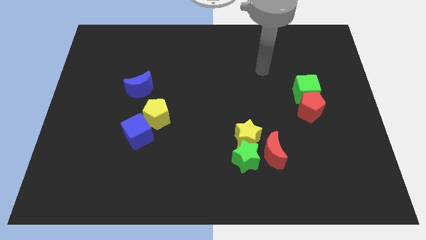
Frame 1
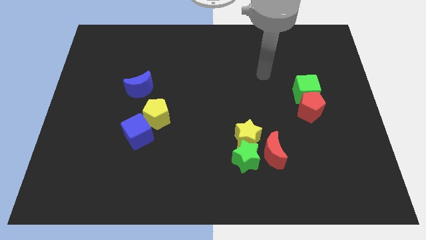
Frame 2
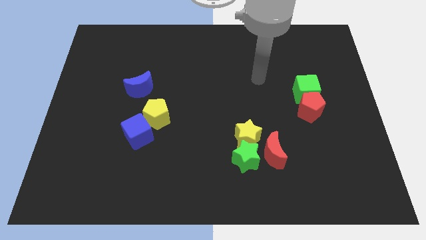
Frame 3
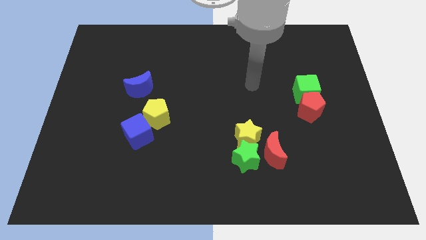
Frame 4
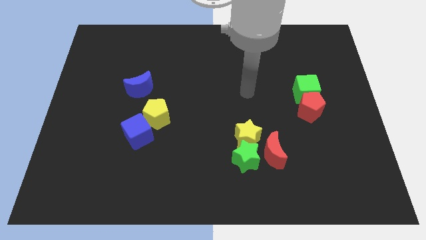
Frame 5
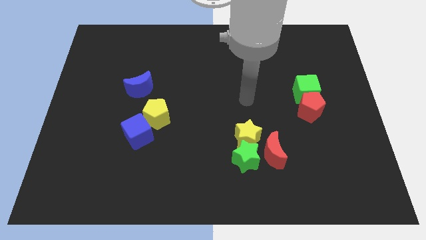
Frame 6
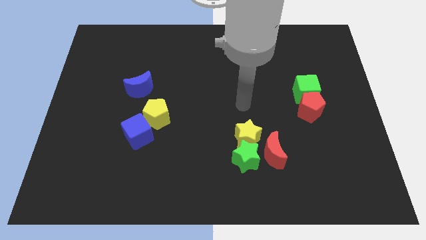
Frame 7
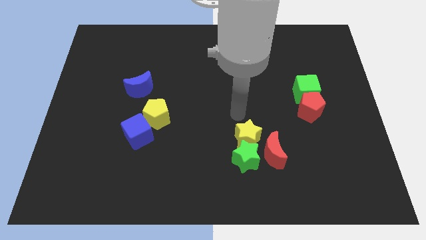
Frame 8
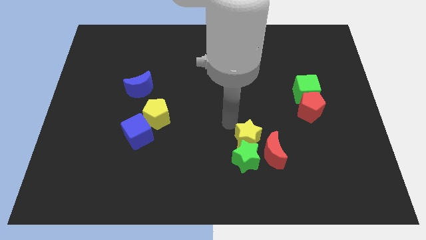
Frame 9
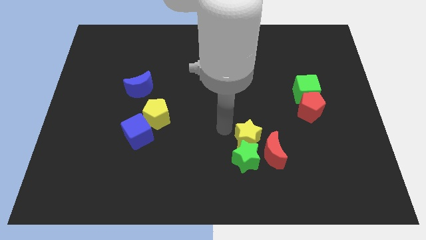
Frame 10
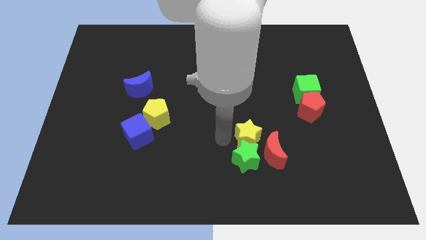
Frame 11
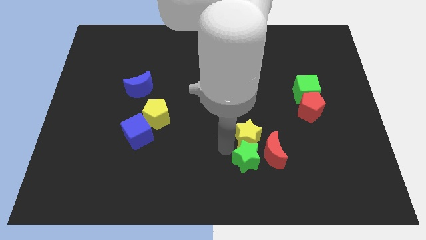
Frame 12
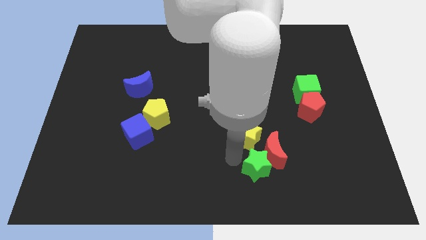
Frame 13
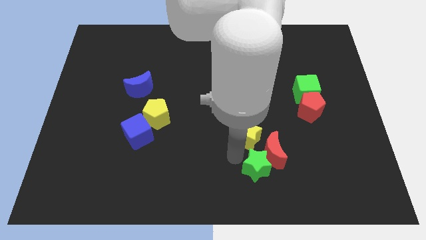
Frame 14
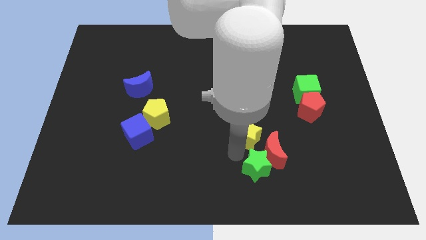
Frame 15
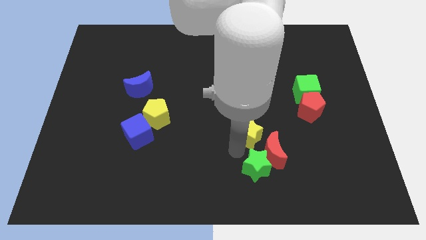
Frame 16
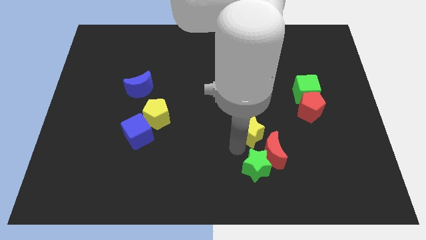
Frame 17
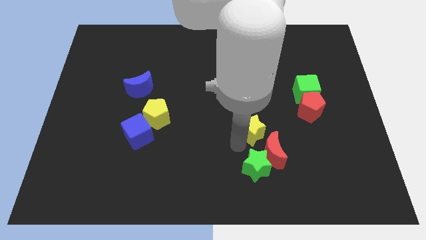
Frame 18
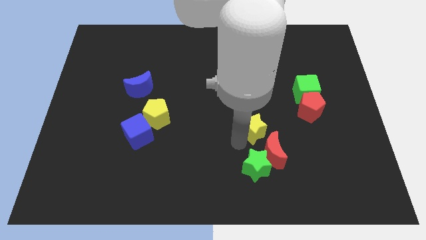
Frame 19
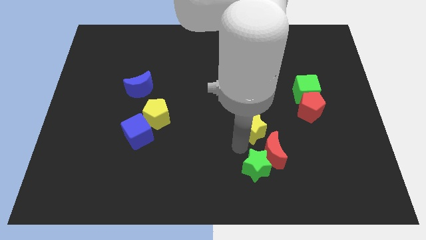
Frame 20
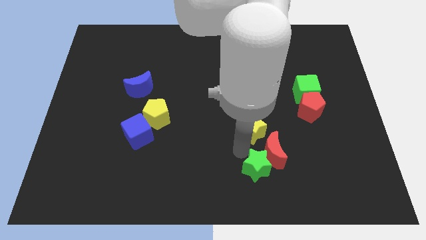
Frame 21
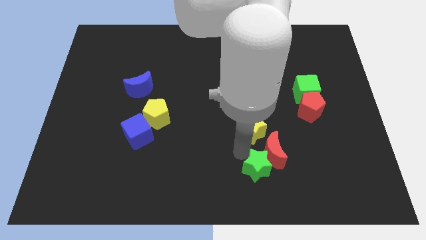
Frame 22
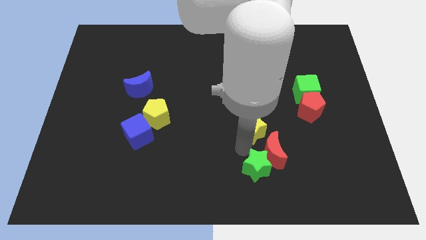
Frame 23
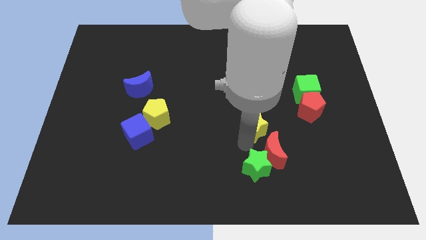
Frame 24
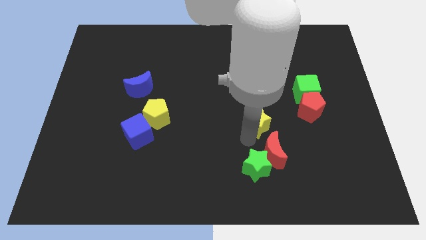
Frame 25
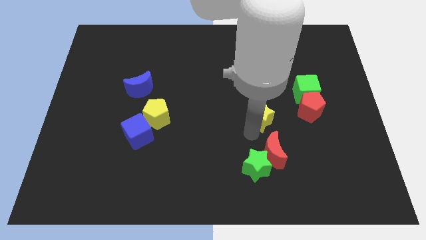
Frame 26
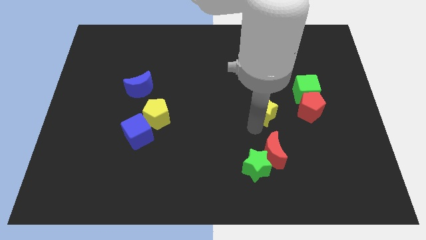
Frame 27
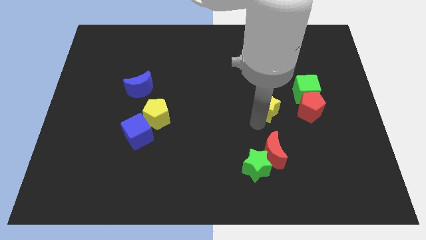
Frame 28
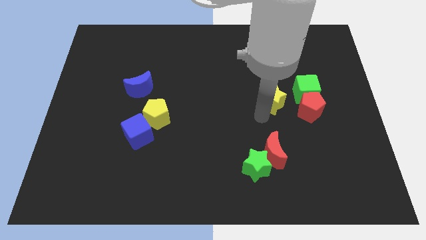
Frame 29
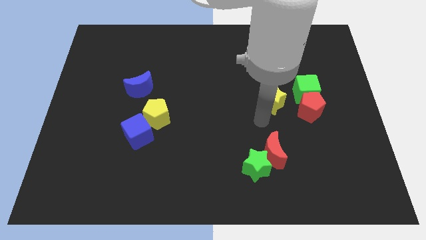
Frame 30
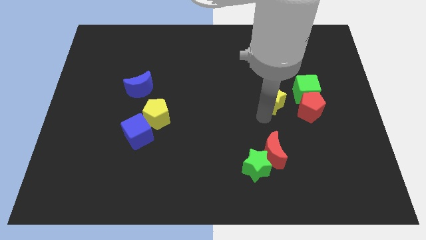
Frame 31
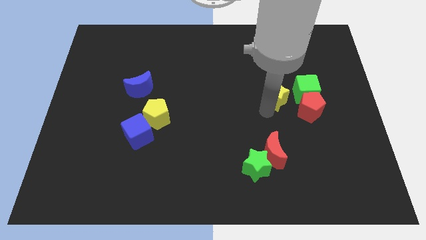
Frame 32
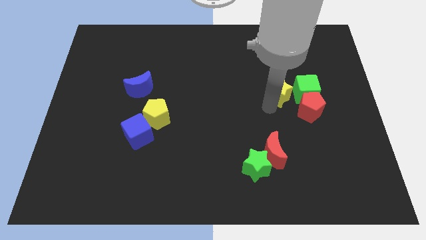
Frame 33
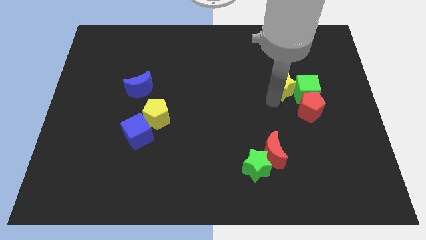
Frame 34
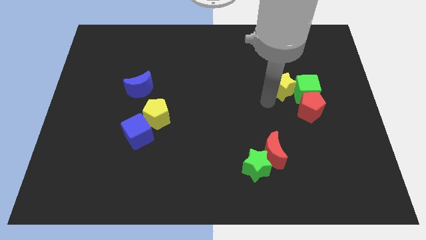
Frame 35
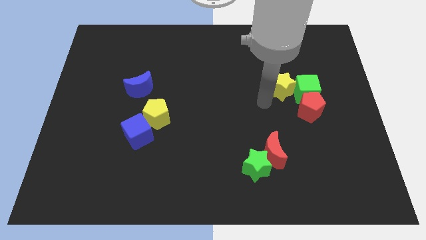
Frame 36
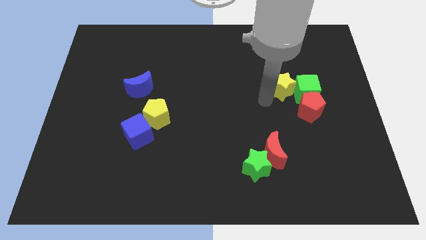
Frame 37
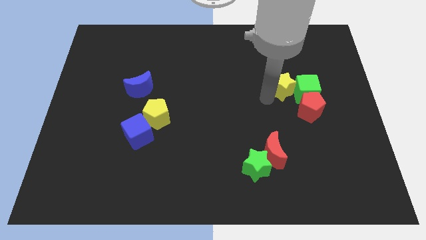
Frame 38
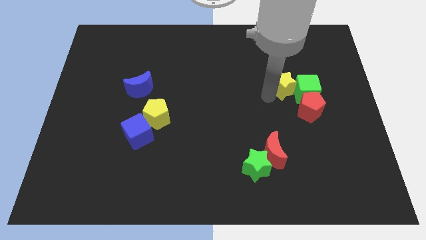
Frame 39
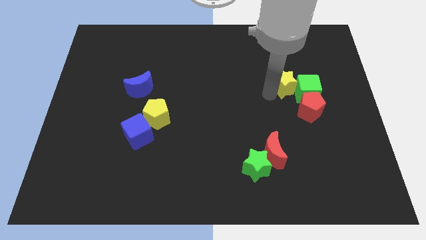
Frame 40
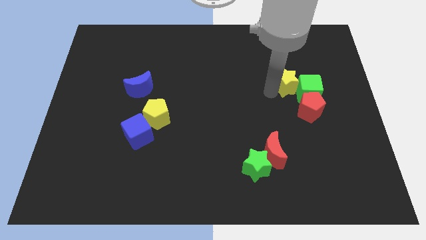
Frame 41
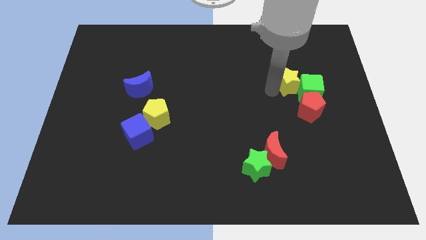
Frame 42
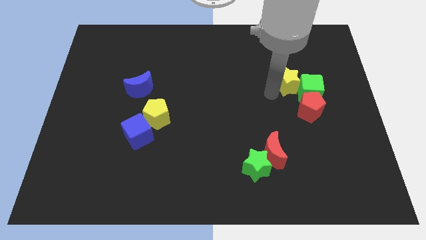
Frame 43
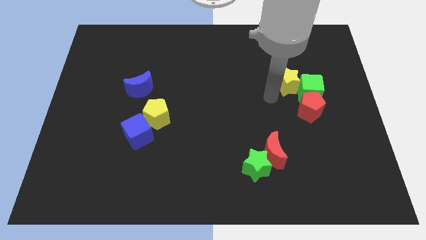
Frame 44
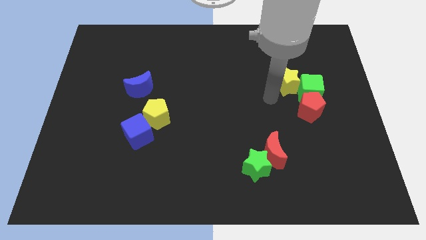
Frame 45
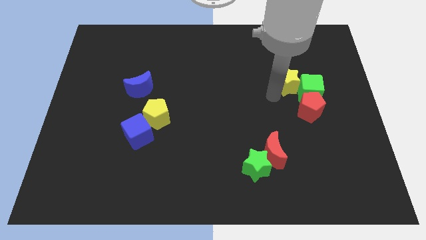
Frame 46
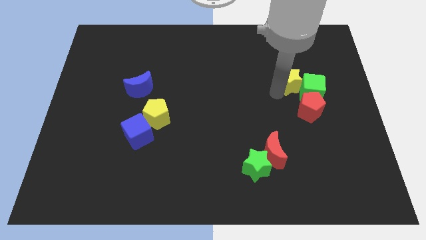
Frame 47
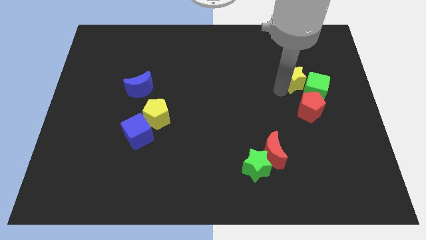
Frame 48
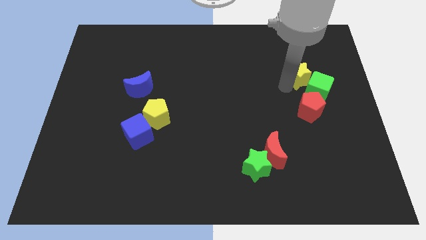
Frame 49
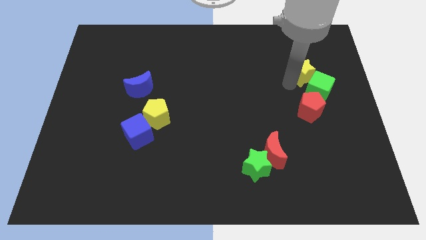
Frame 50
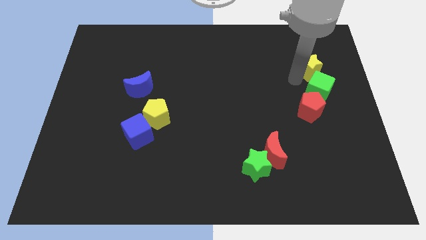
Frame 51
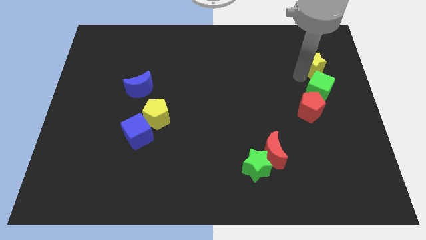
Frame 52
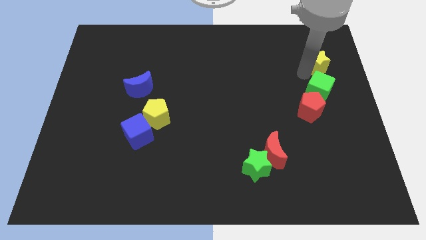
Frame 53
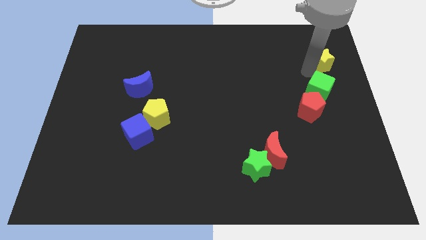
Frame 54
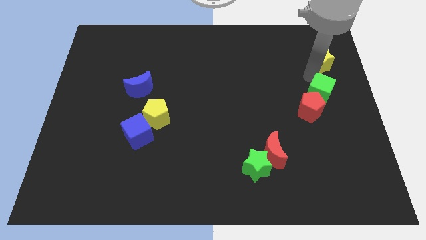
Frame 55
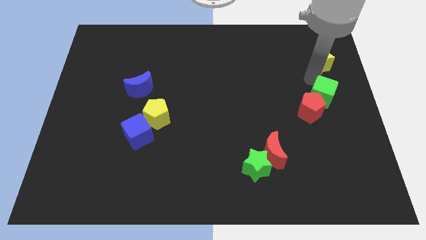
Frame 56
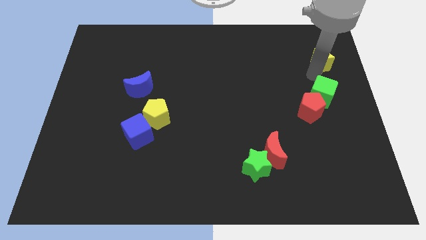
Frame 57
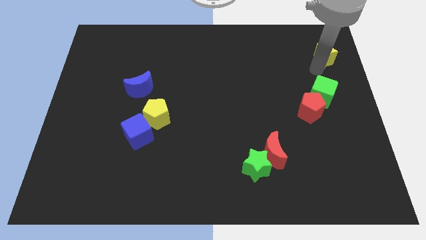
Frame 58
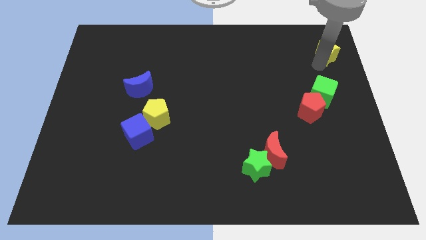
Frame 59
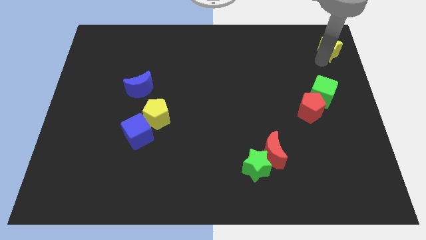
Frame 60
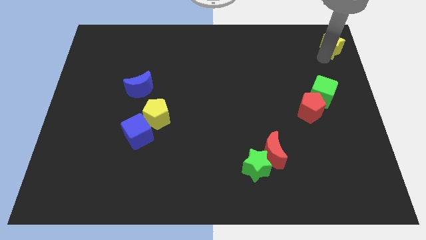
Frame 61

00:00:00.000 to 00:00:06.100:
move the yellow star to the top right corner
